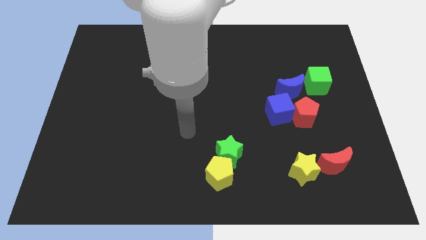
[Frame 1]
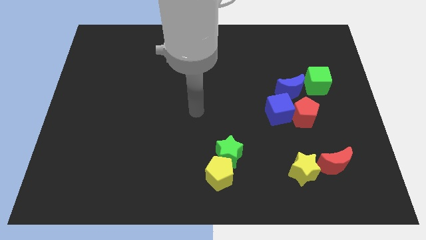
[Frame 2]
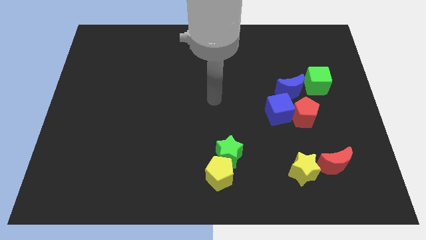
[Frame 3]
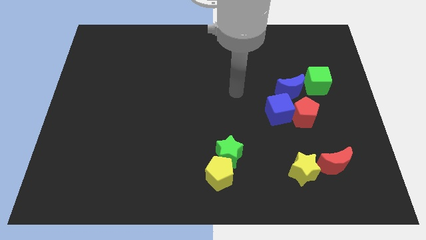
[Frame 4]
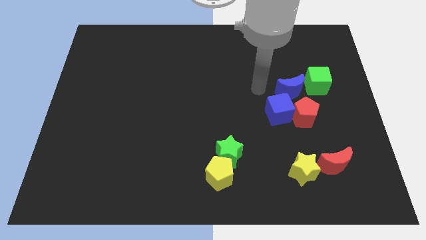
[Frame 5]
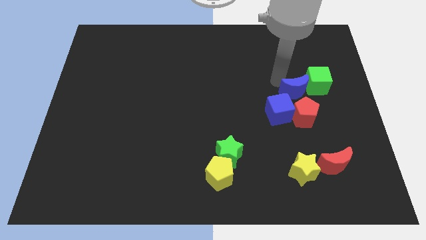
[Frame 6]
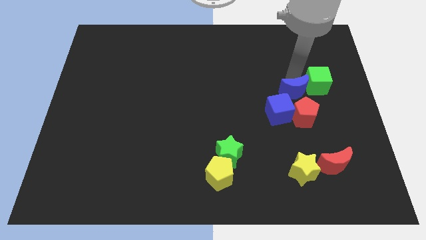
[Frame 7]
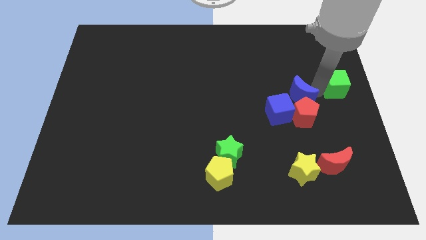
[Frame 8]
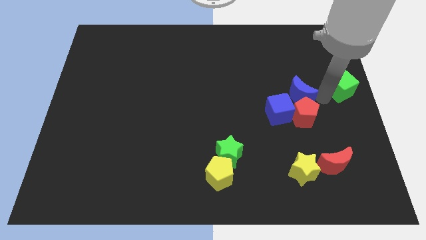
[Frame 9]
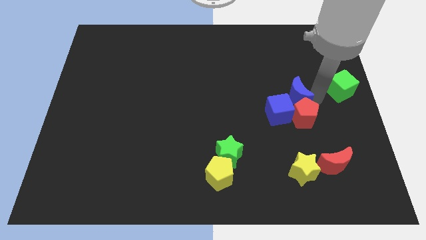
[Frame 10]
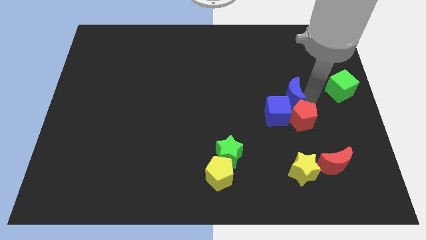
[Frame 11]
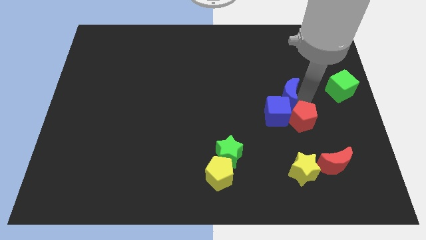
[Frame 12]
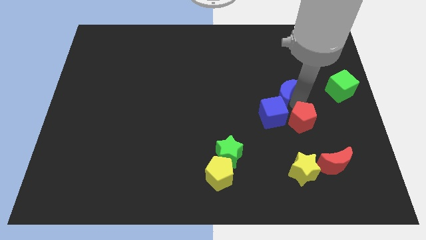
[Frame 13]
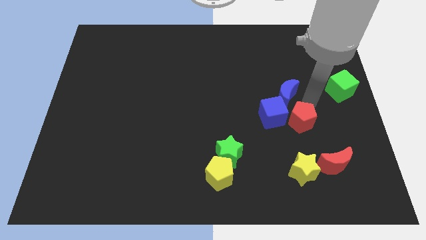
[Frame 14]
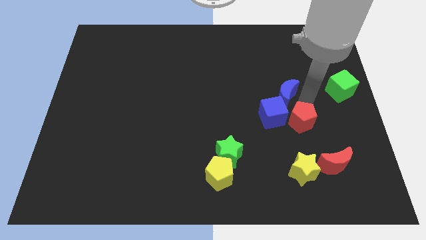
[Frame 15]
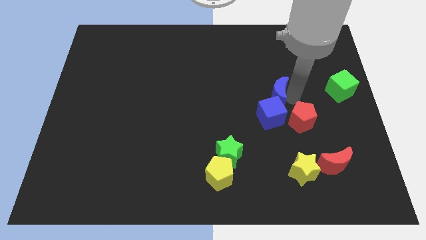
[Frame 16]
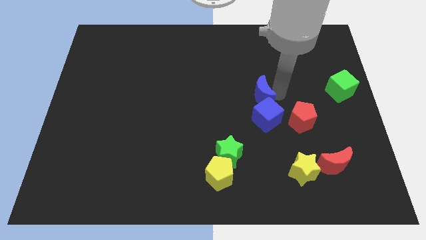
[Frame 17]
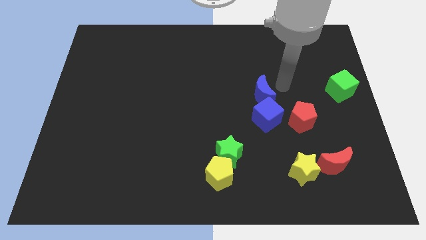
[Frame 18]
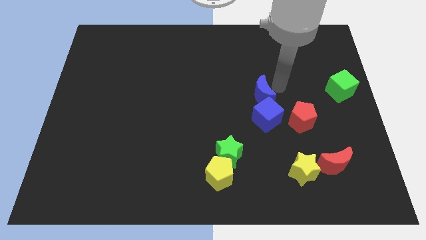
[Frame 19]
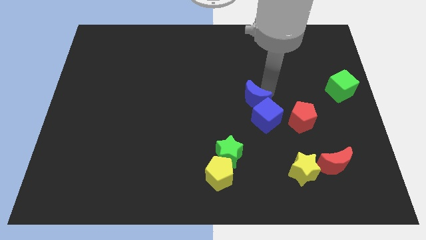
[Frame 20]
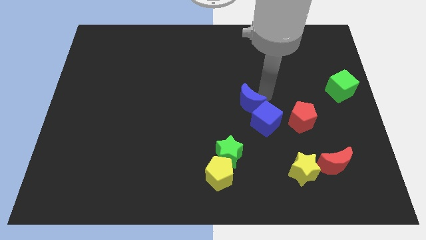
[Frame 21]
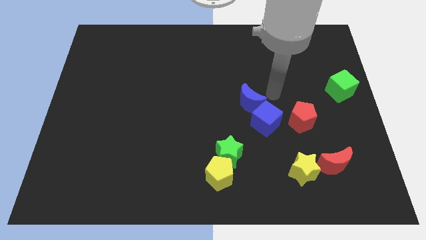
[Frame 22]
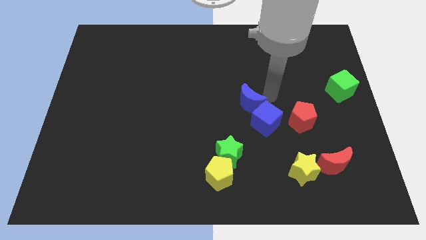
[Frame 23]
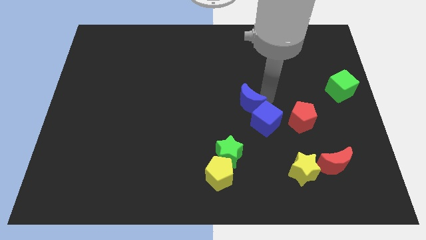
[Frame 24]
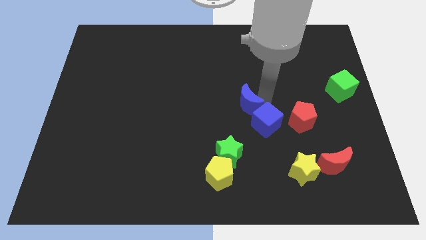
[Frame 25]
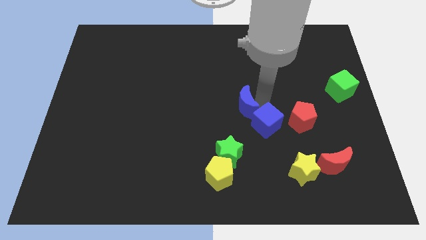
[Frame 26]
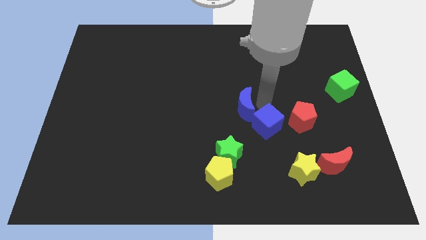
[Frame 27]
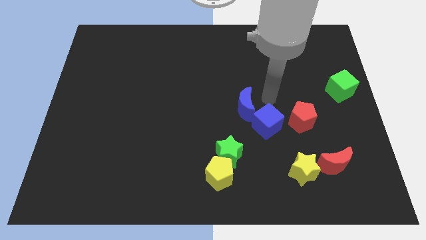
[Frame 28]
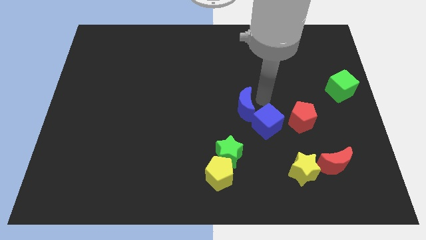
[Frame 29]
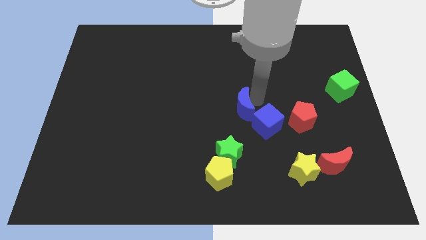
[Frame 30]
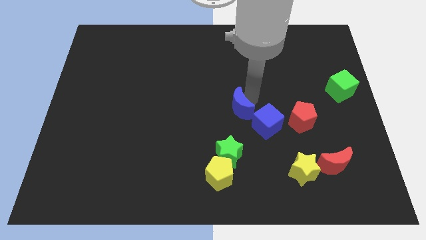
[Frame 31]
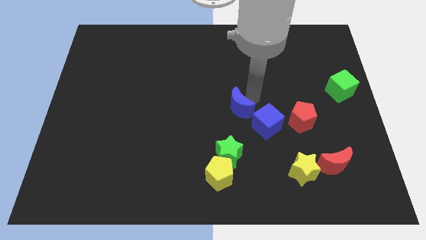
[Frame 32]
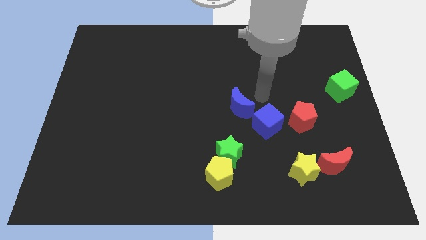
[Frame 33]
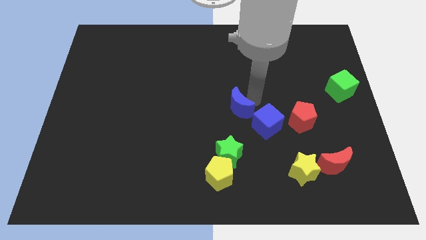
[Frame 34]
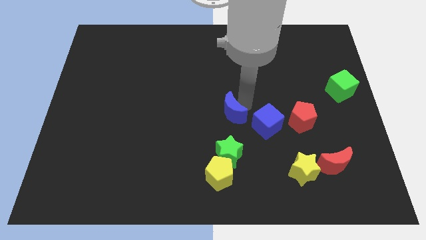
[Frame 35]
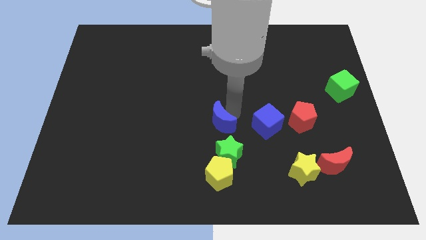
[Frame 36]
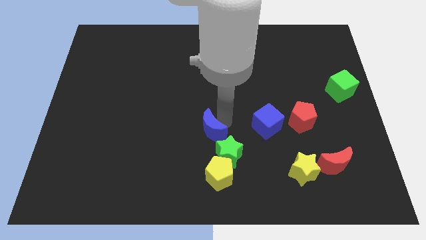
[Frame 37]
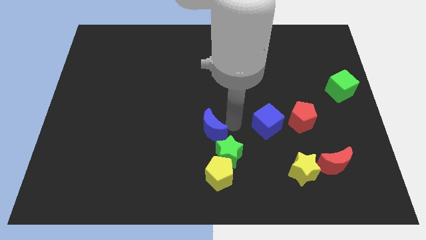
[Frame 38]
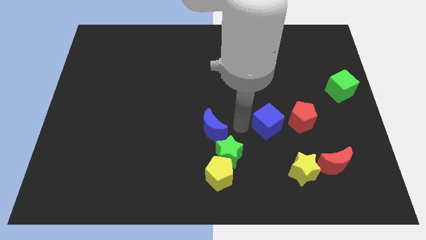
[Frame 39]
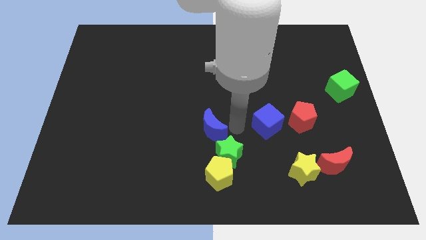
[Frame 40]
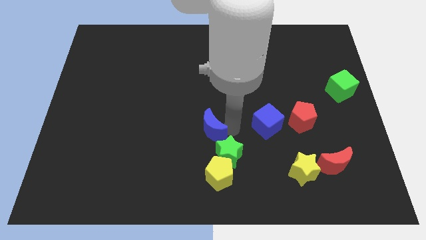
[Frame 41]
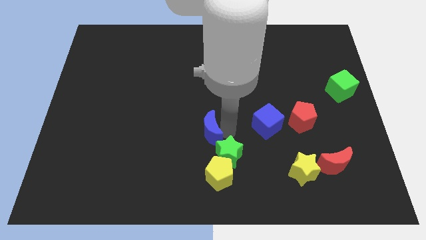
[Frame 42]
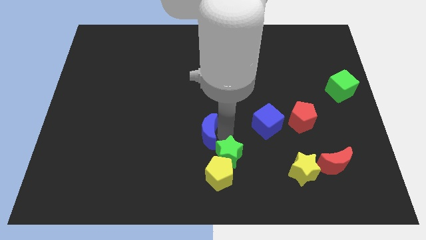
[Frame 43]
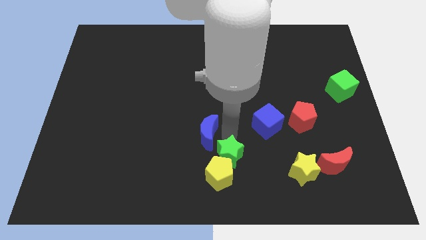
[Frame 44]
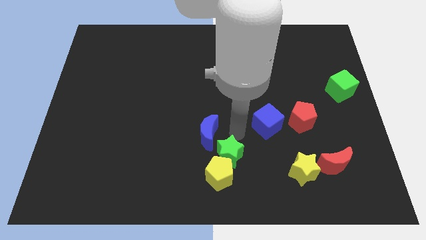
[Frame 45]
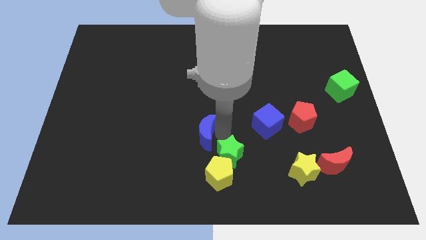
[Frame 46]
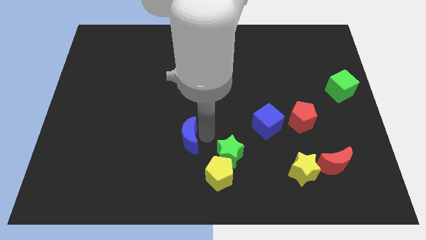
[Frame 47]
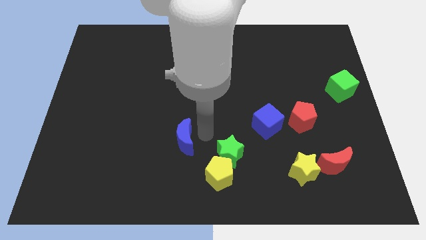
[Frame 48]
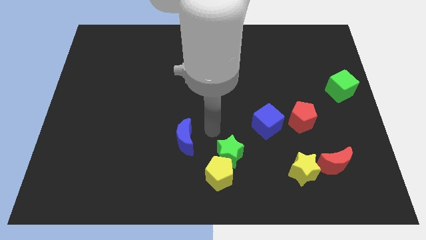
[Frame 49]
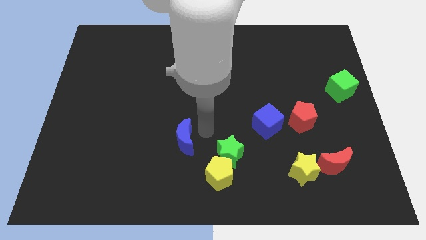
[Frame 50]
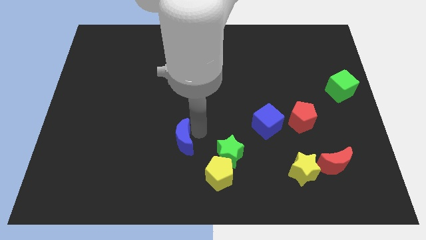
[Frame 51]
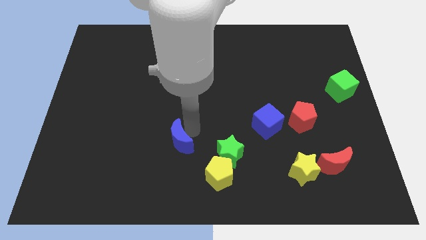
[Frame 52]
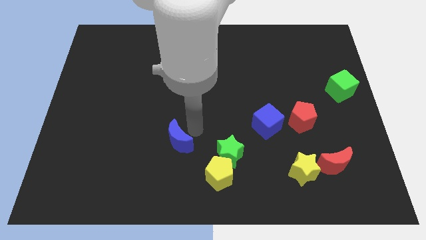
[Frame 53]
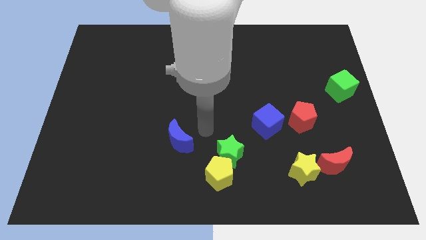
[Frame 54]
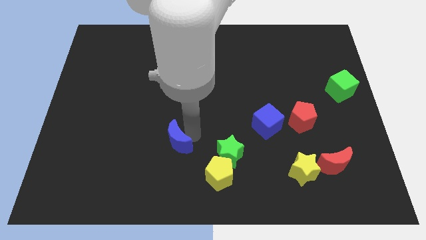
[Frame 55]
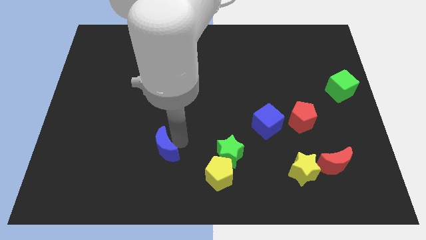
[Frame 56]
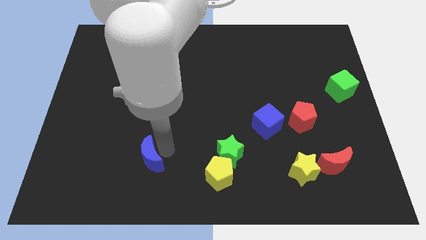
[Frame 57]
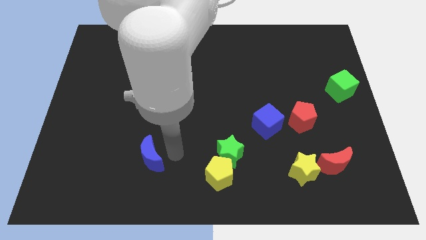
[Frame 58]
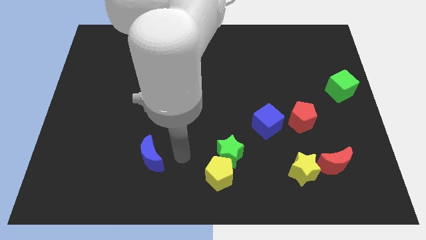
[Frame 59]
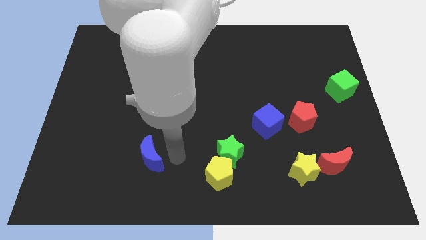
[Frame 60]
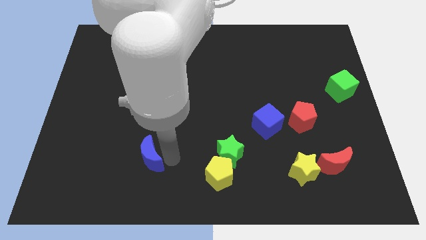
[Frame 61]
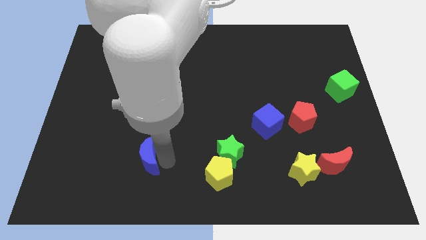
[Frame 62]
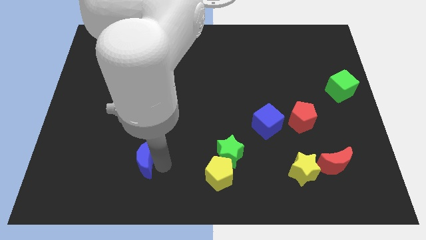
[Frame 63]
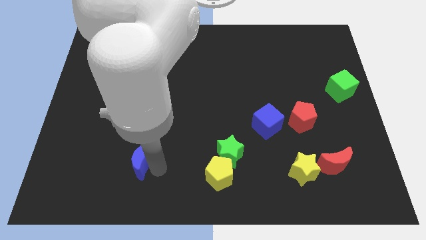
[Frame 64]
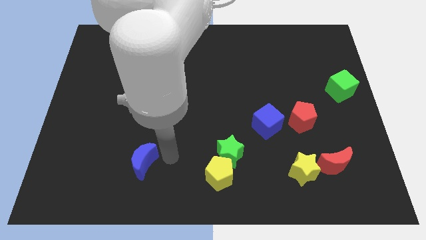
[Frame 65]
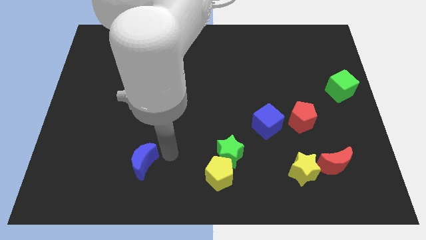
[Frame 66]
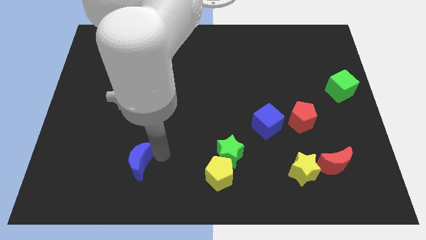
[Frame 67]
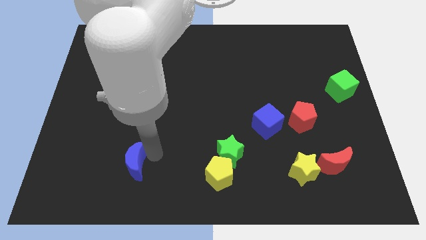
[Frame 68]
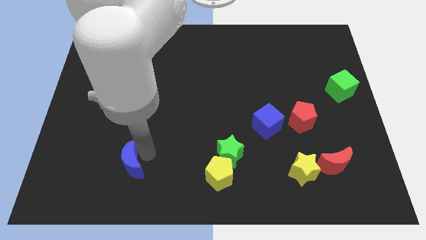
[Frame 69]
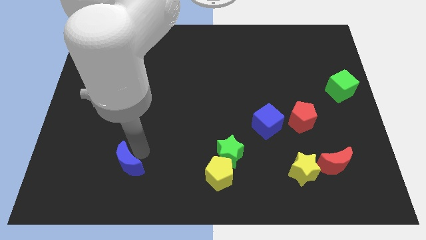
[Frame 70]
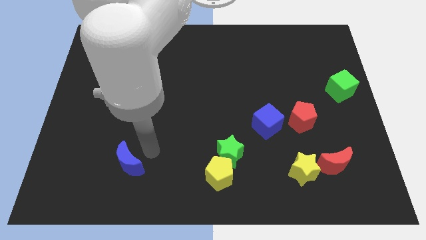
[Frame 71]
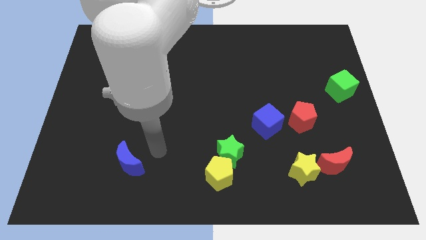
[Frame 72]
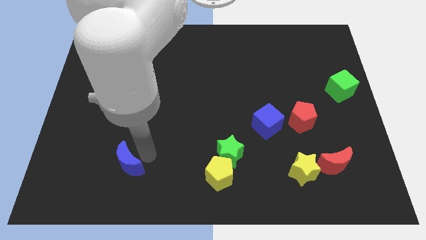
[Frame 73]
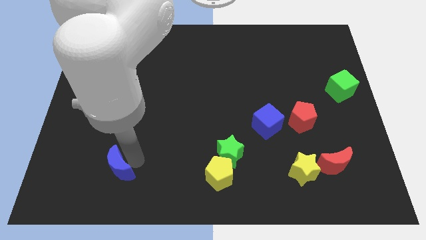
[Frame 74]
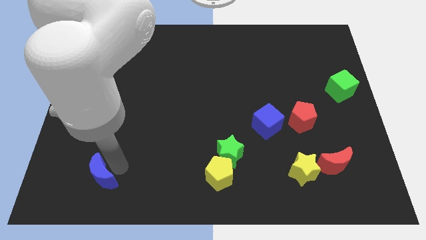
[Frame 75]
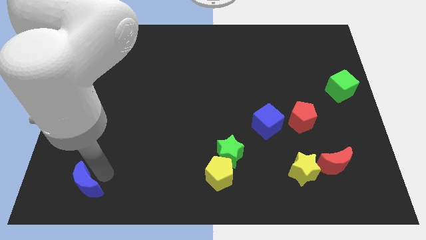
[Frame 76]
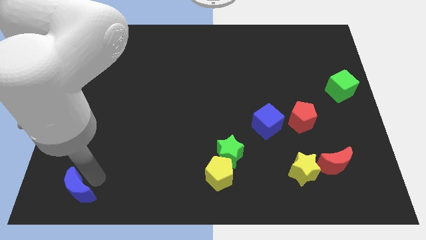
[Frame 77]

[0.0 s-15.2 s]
move the blue moon to the bottom left of the board
